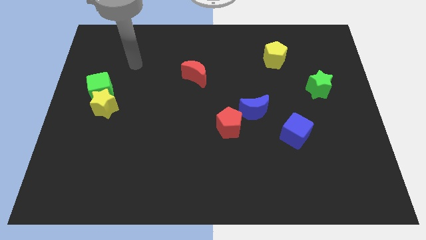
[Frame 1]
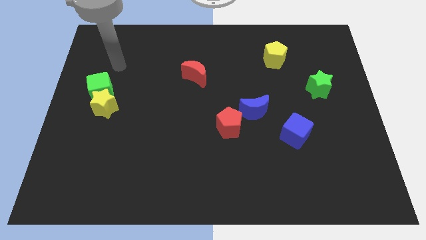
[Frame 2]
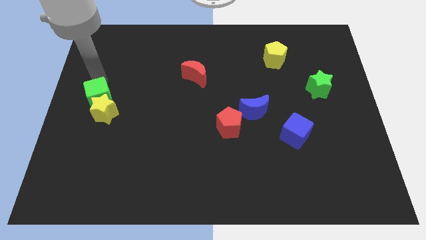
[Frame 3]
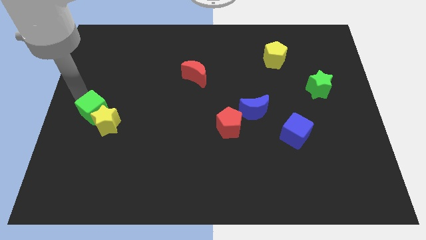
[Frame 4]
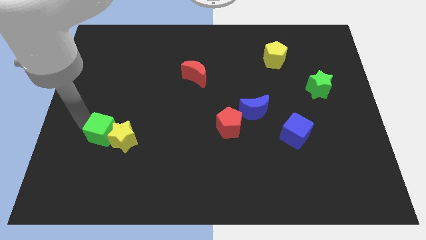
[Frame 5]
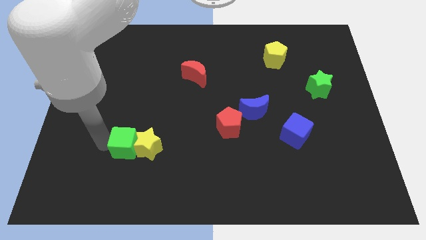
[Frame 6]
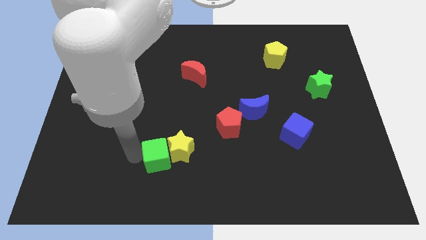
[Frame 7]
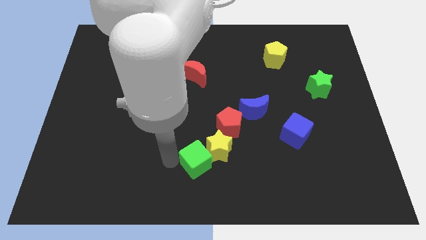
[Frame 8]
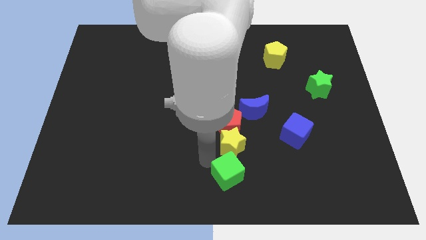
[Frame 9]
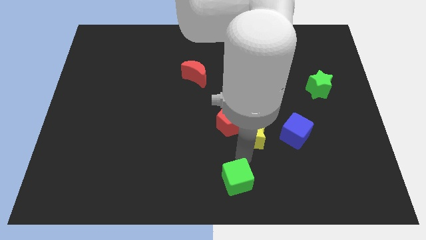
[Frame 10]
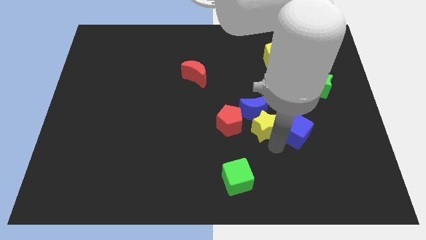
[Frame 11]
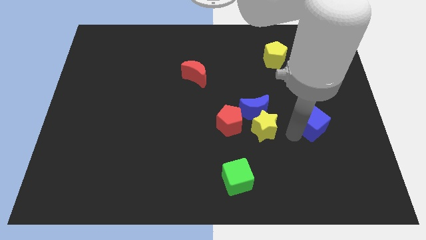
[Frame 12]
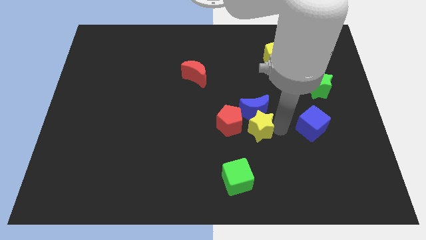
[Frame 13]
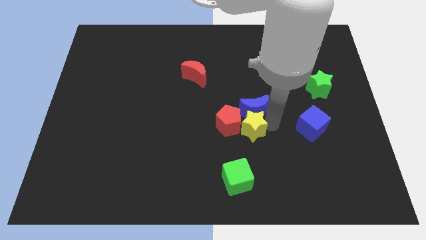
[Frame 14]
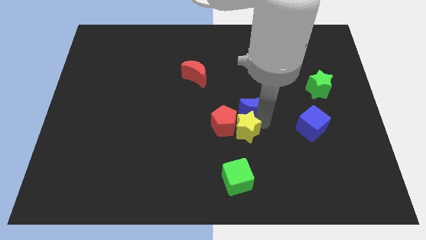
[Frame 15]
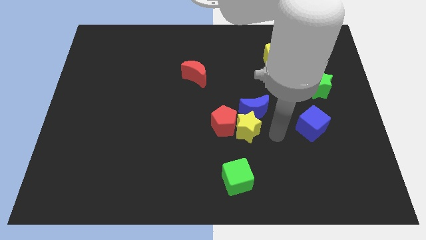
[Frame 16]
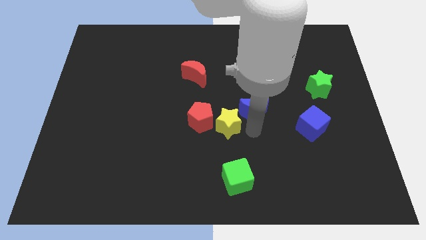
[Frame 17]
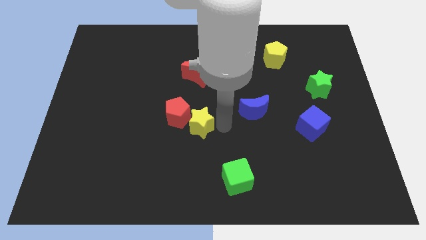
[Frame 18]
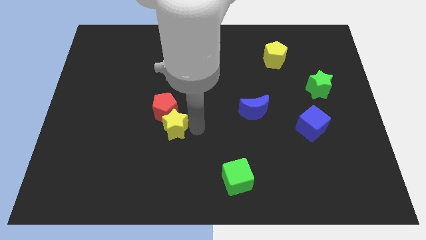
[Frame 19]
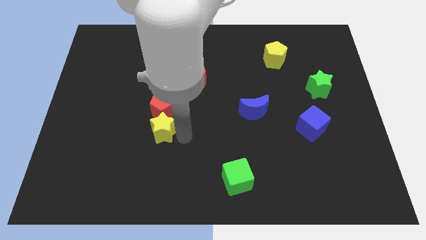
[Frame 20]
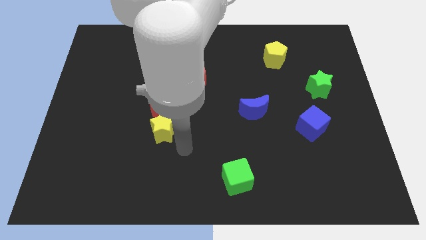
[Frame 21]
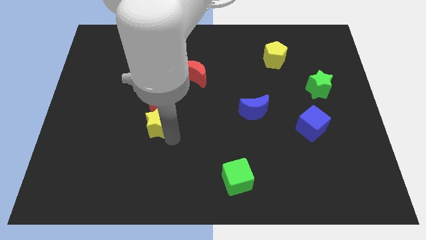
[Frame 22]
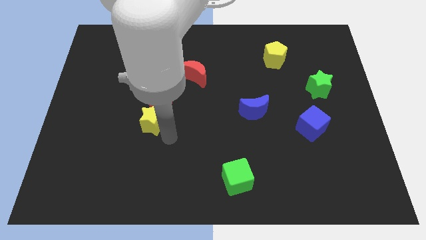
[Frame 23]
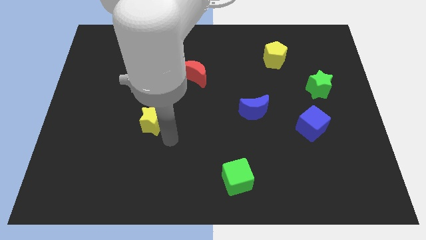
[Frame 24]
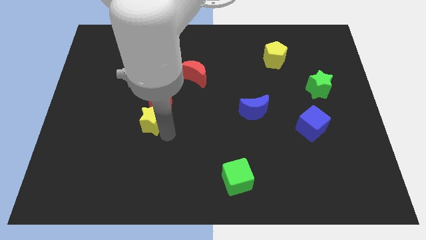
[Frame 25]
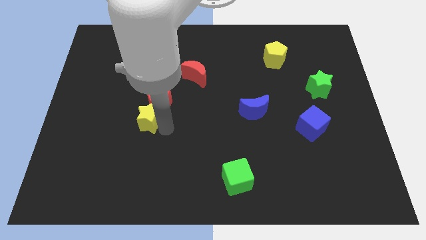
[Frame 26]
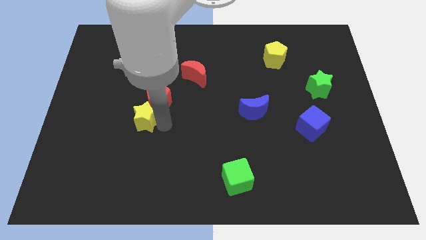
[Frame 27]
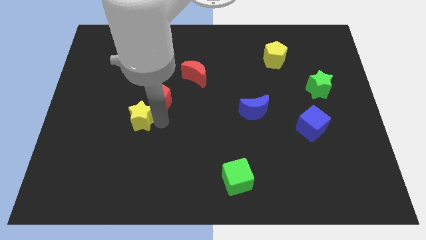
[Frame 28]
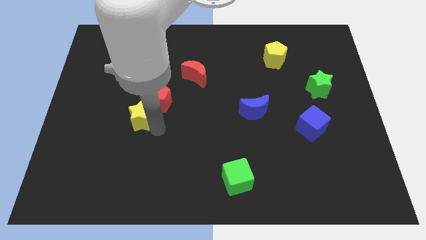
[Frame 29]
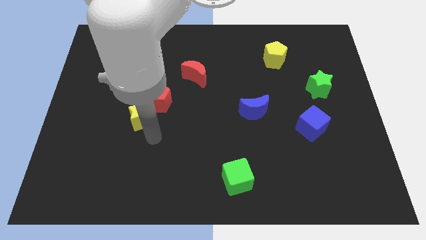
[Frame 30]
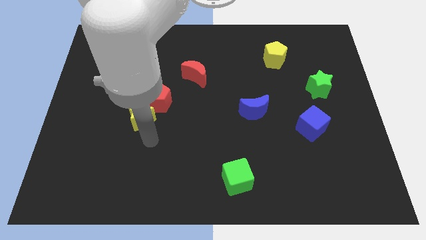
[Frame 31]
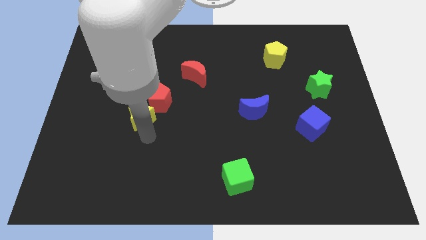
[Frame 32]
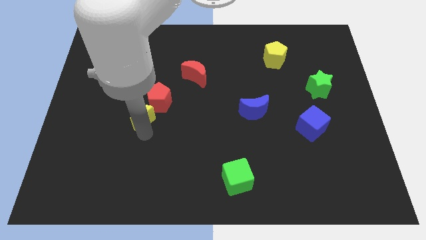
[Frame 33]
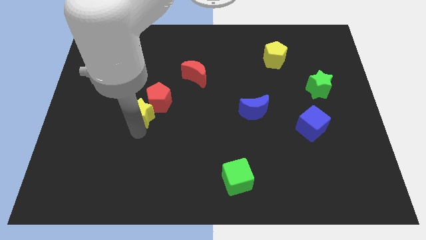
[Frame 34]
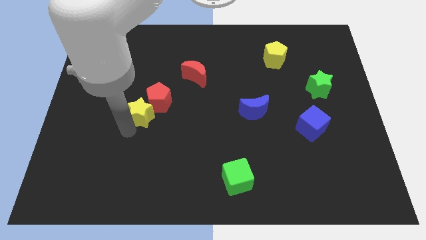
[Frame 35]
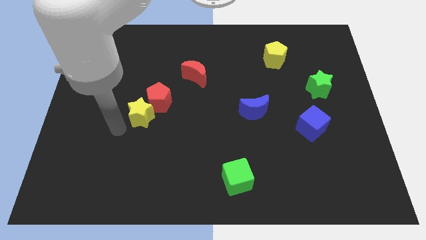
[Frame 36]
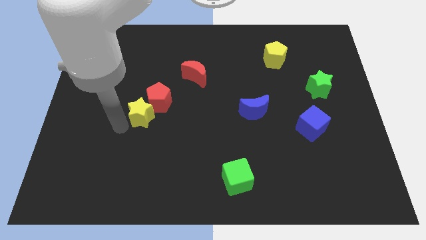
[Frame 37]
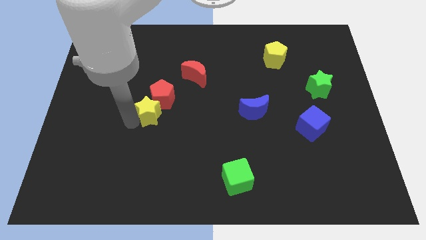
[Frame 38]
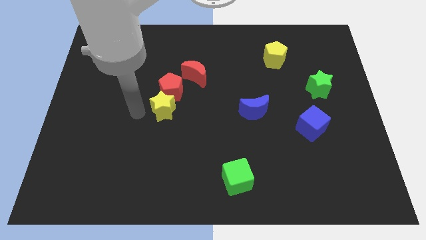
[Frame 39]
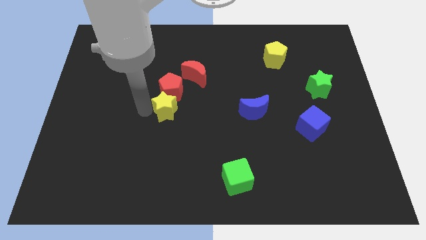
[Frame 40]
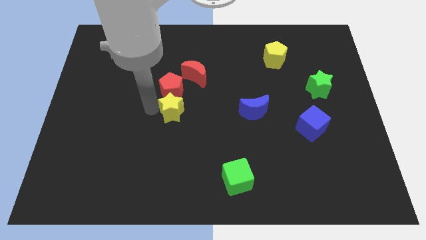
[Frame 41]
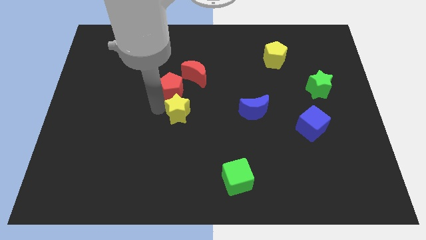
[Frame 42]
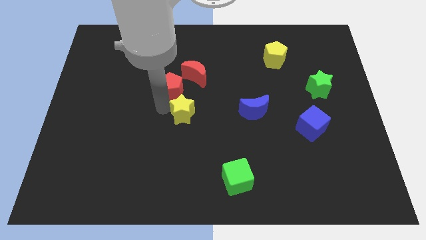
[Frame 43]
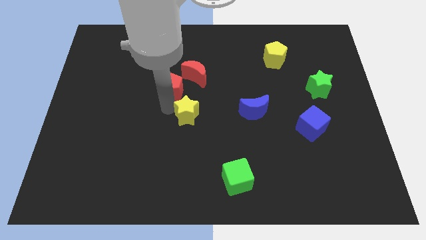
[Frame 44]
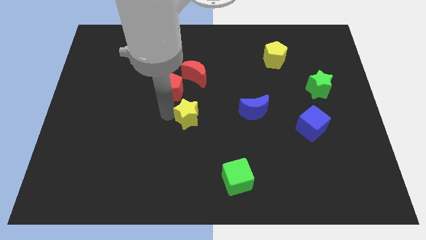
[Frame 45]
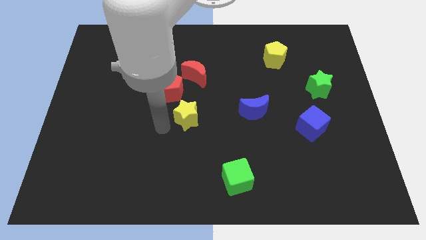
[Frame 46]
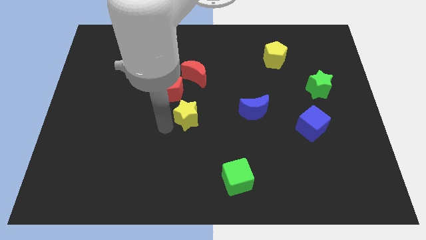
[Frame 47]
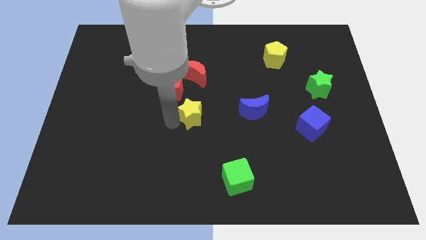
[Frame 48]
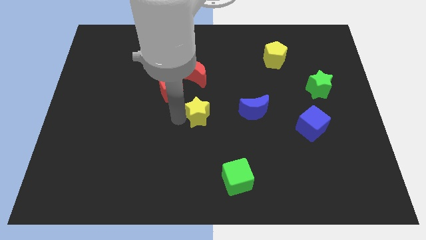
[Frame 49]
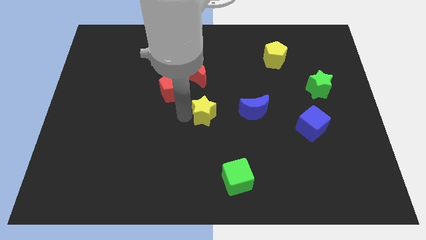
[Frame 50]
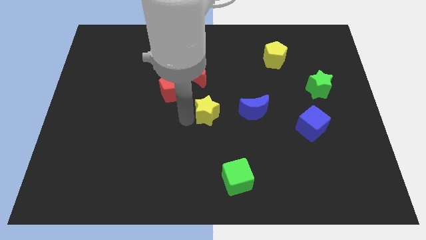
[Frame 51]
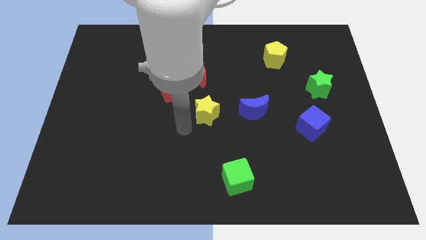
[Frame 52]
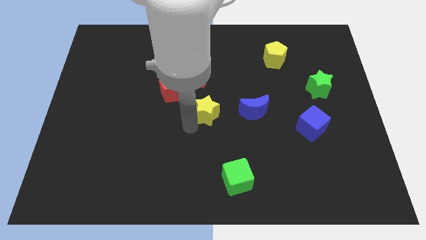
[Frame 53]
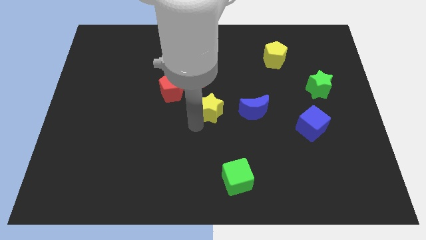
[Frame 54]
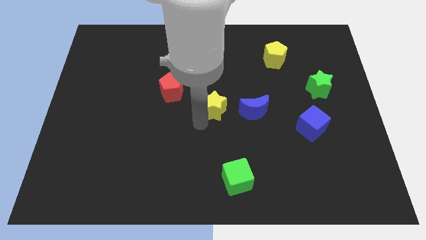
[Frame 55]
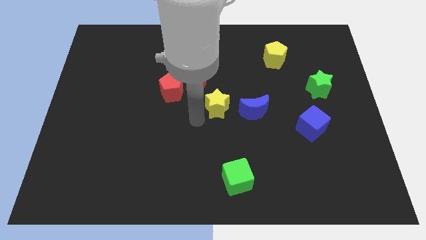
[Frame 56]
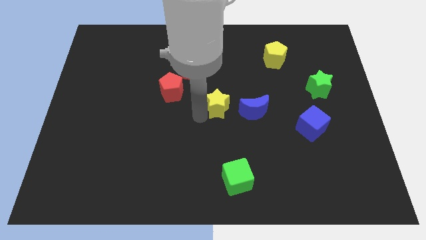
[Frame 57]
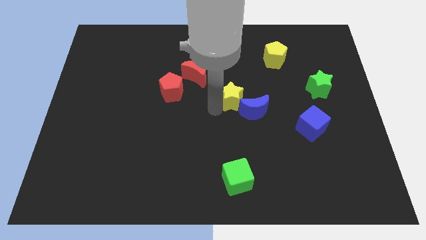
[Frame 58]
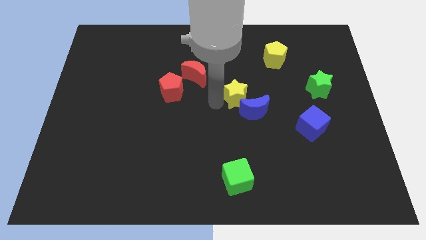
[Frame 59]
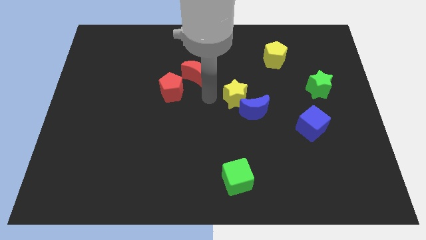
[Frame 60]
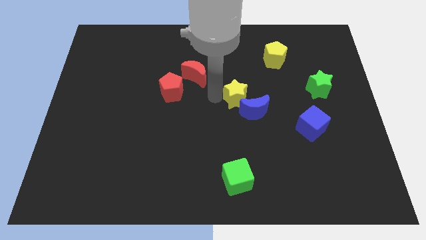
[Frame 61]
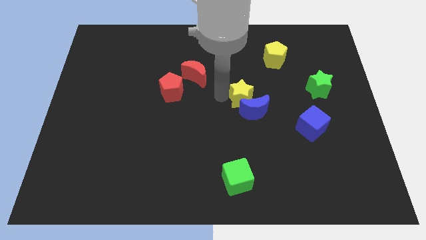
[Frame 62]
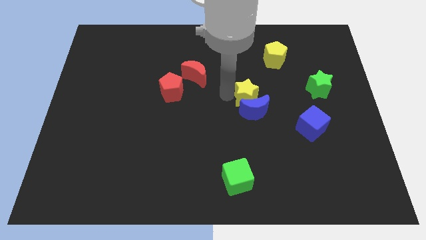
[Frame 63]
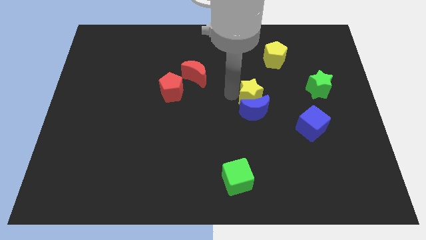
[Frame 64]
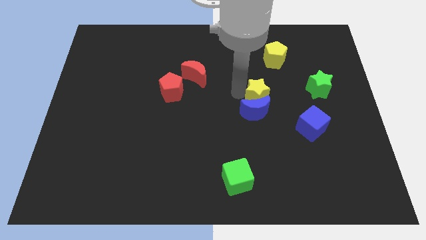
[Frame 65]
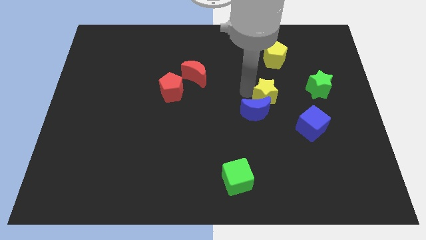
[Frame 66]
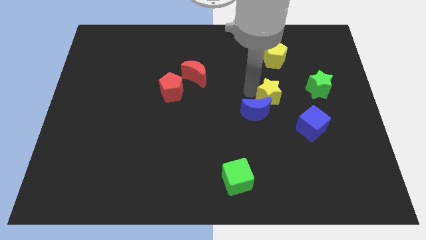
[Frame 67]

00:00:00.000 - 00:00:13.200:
slide the yellow star just right of the blue moon

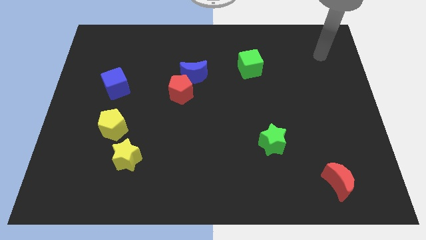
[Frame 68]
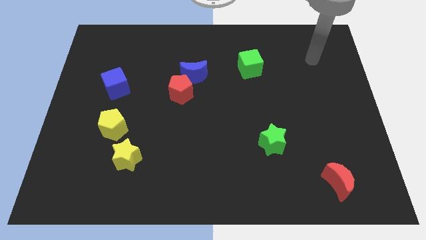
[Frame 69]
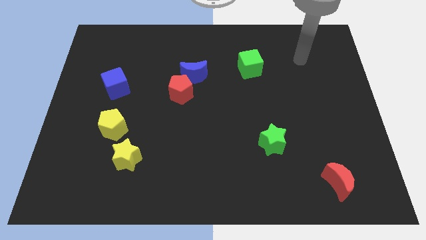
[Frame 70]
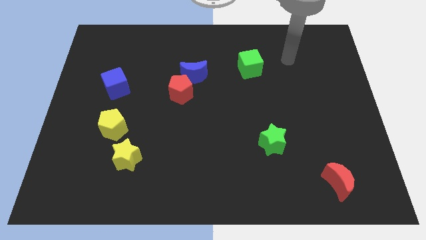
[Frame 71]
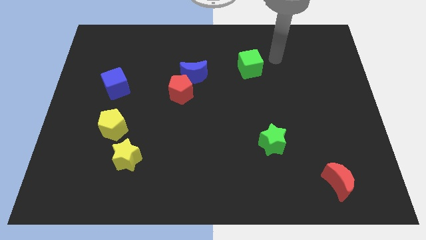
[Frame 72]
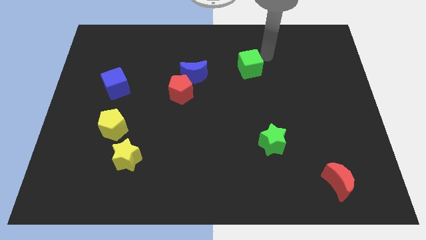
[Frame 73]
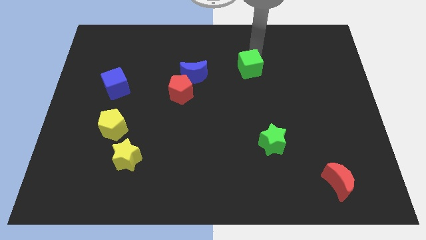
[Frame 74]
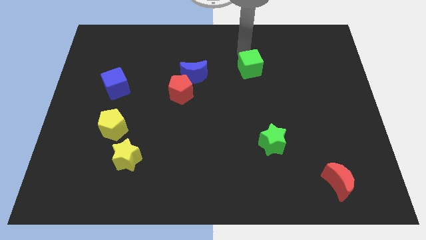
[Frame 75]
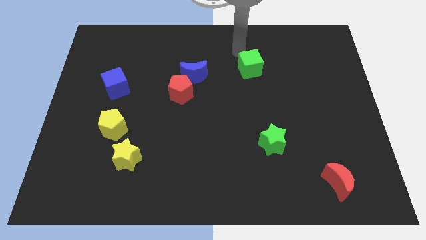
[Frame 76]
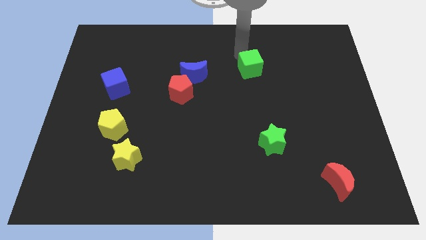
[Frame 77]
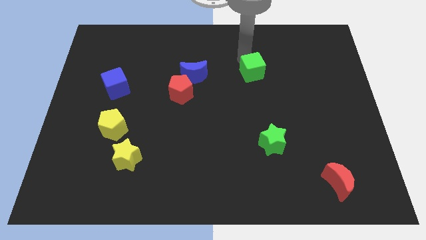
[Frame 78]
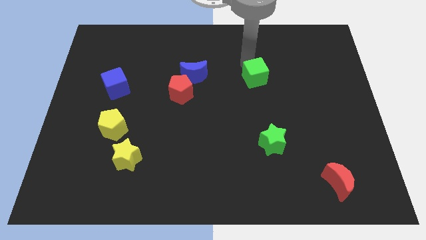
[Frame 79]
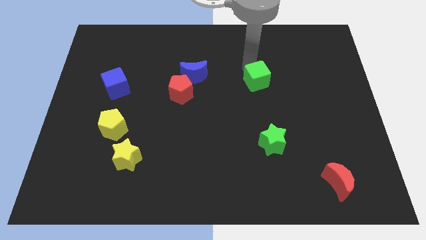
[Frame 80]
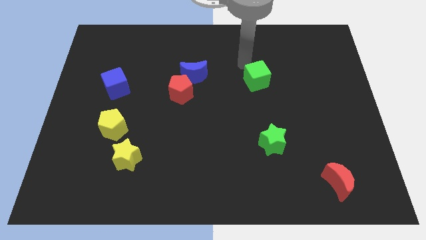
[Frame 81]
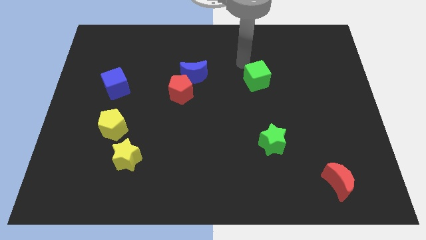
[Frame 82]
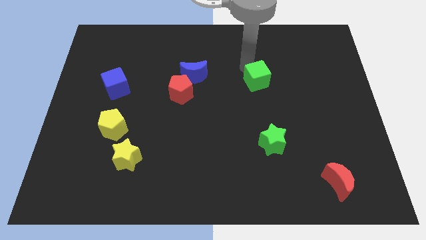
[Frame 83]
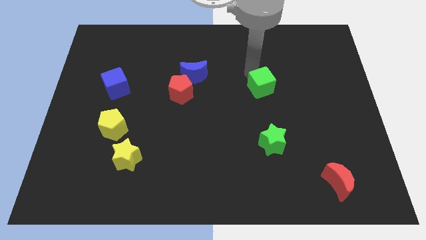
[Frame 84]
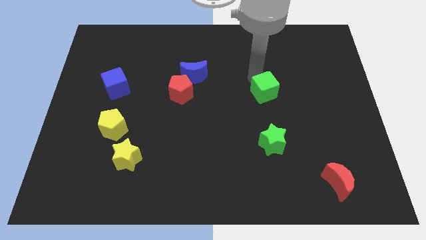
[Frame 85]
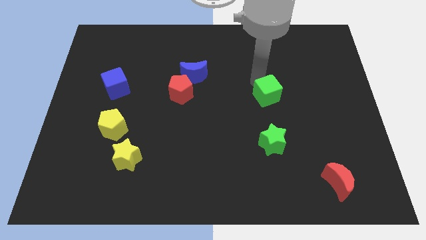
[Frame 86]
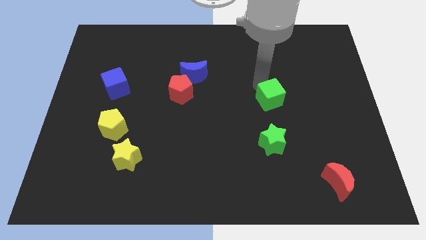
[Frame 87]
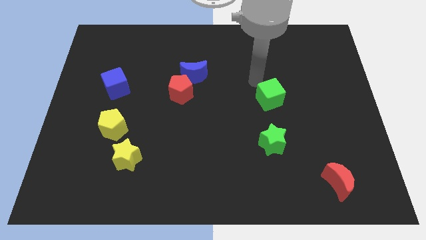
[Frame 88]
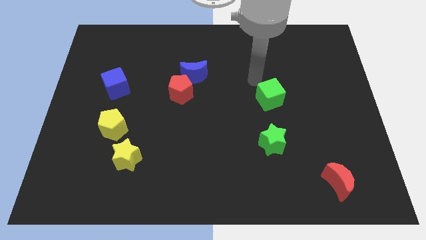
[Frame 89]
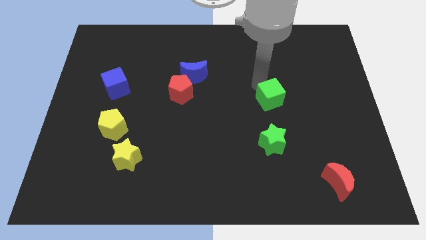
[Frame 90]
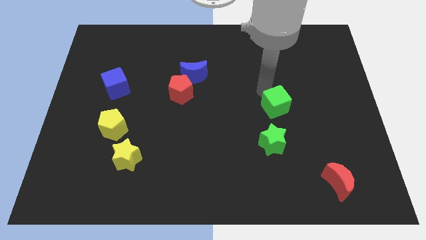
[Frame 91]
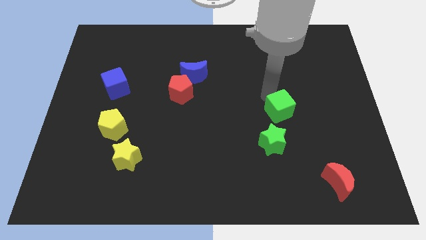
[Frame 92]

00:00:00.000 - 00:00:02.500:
move the green cube to the top right of the green star
